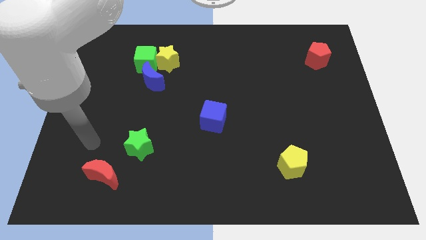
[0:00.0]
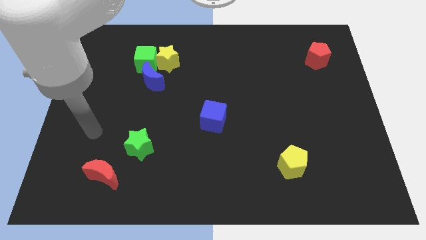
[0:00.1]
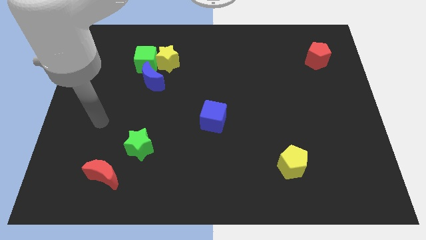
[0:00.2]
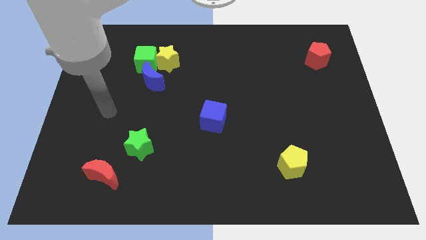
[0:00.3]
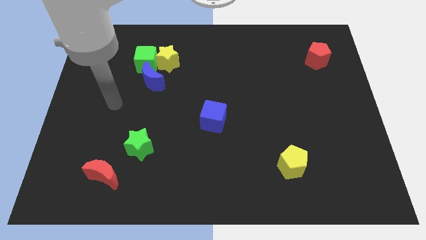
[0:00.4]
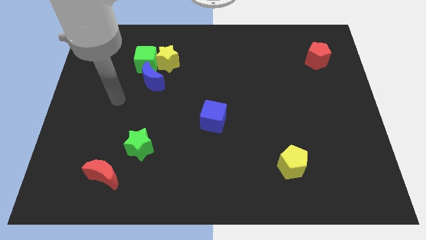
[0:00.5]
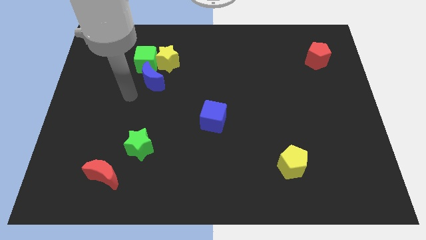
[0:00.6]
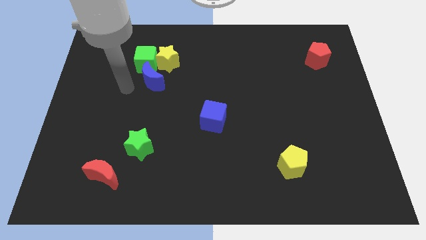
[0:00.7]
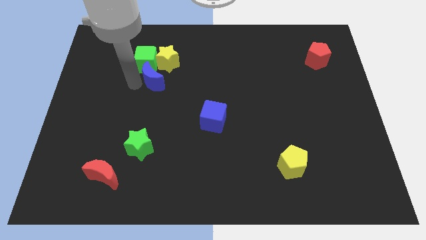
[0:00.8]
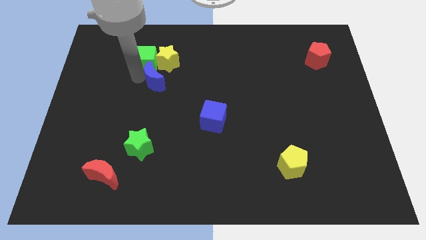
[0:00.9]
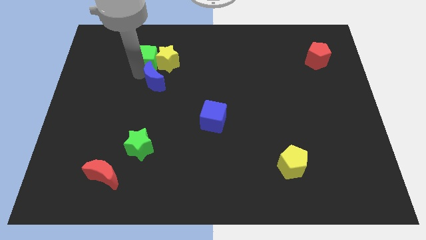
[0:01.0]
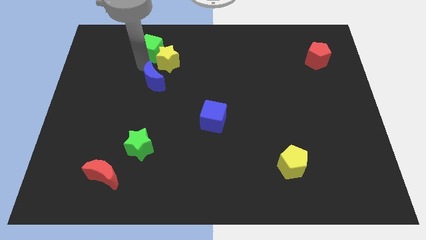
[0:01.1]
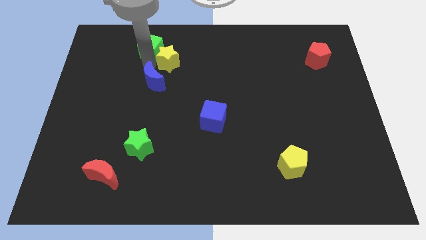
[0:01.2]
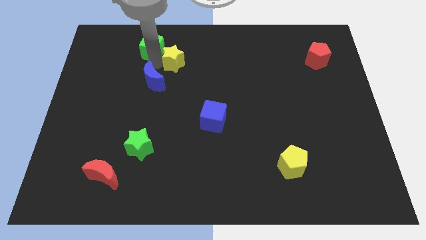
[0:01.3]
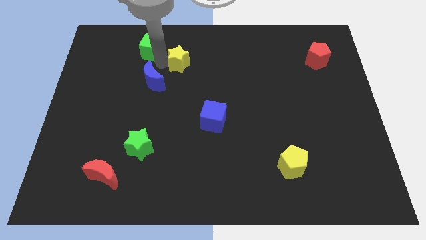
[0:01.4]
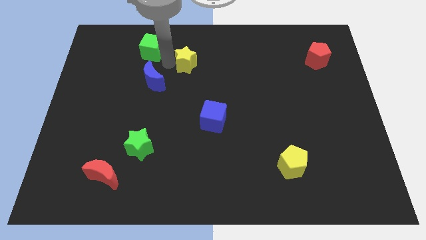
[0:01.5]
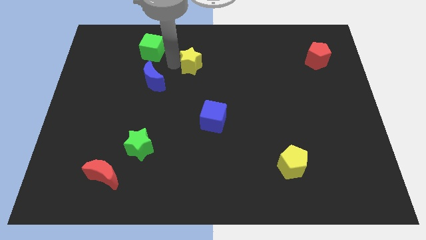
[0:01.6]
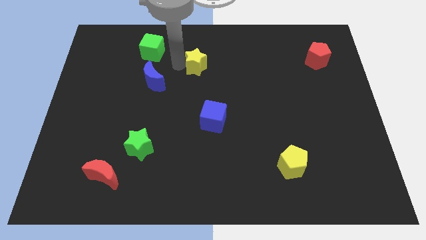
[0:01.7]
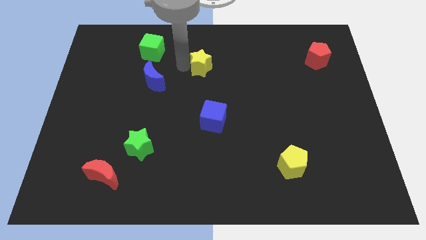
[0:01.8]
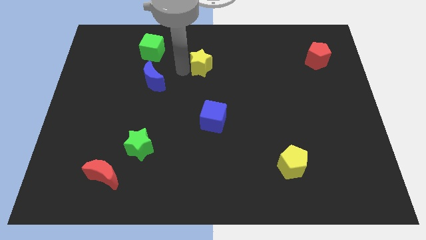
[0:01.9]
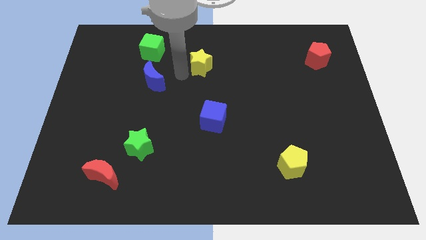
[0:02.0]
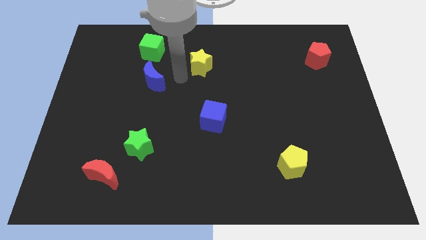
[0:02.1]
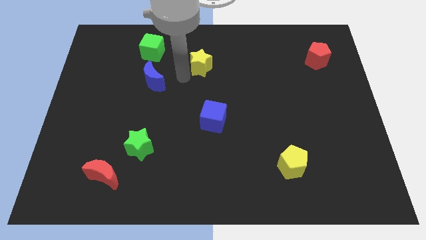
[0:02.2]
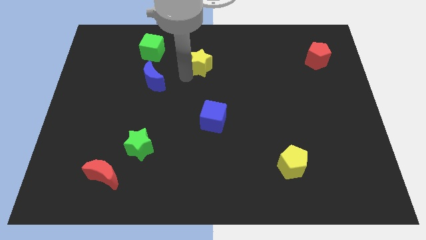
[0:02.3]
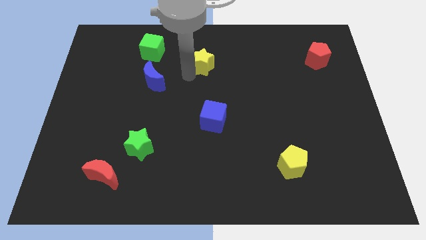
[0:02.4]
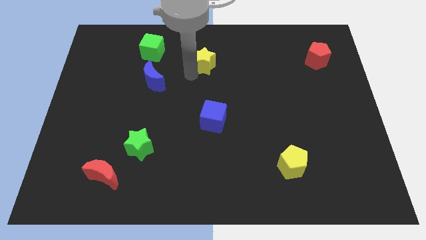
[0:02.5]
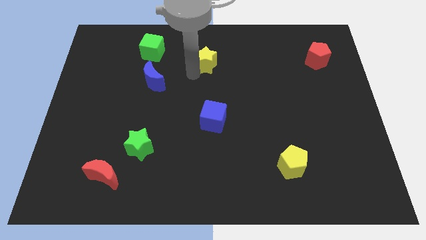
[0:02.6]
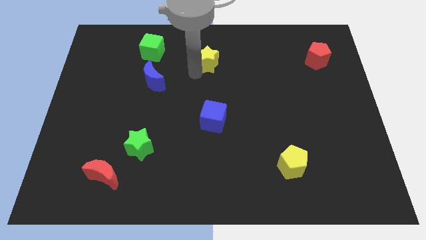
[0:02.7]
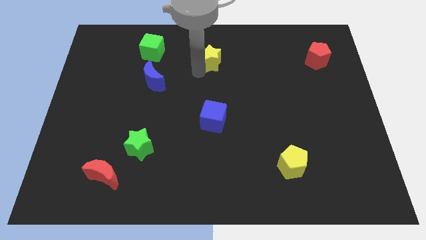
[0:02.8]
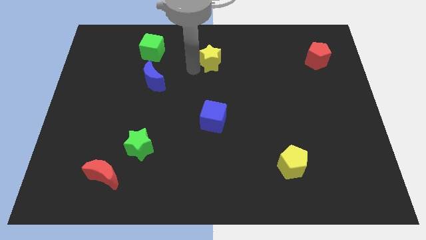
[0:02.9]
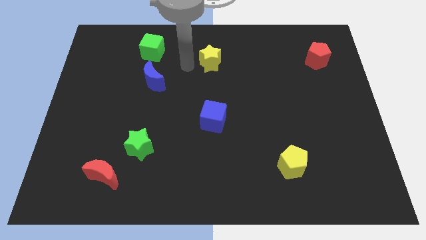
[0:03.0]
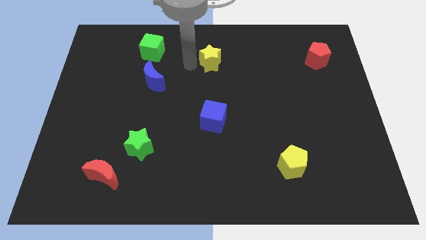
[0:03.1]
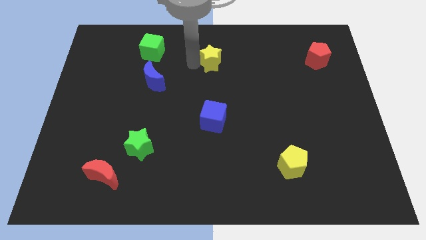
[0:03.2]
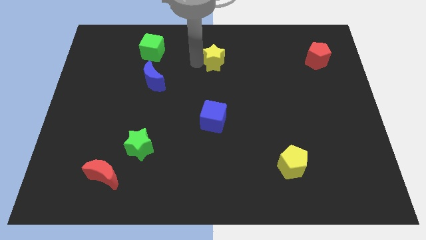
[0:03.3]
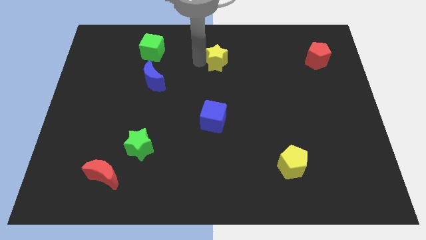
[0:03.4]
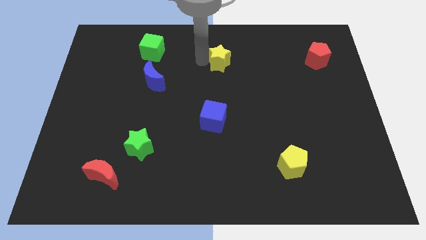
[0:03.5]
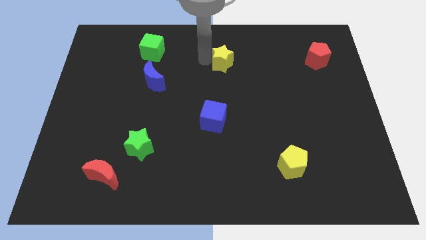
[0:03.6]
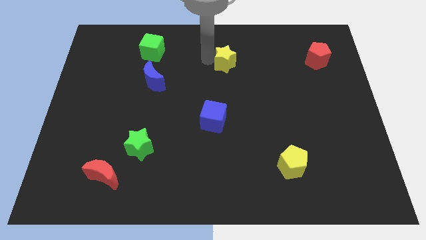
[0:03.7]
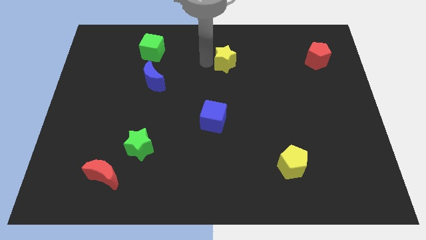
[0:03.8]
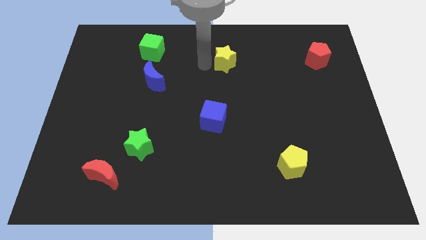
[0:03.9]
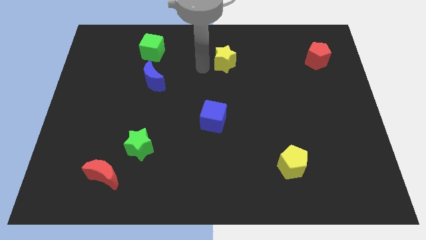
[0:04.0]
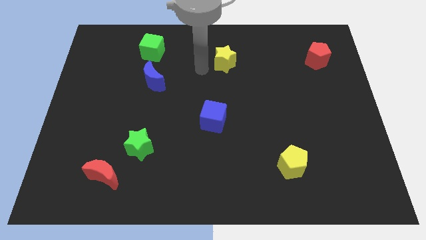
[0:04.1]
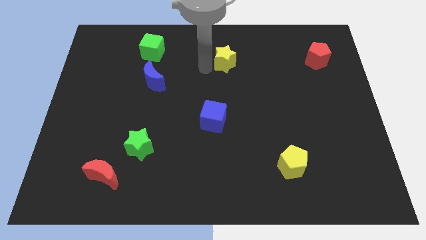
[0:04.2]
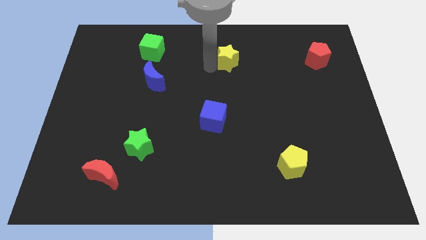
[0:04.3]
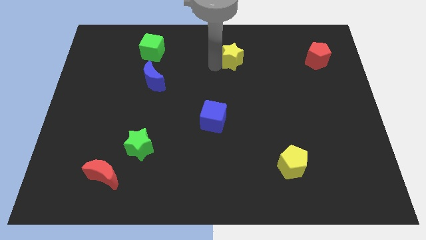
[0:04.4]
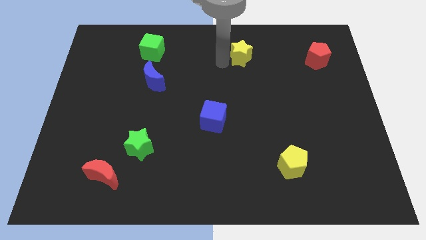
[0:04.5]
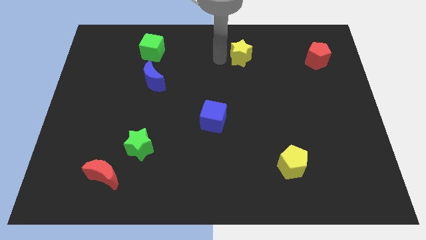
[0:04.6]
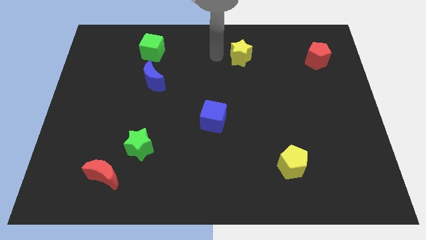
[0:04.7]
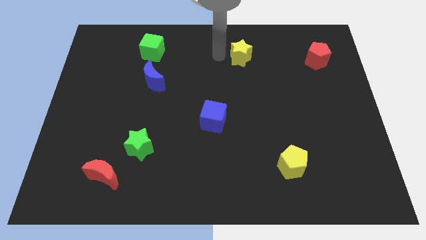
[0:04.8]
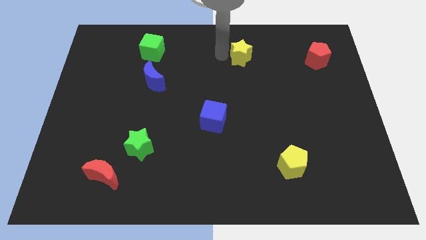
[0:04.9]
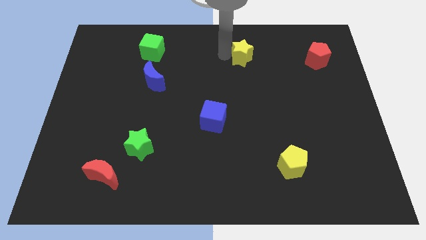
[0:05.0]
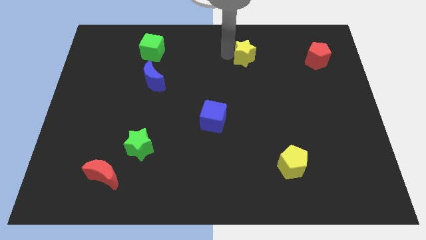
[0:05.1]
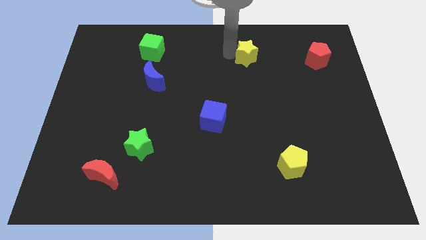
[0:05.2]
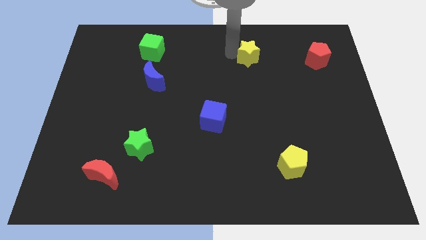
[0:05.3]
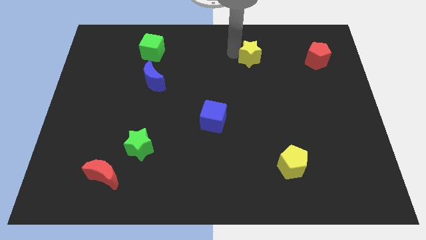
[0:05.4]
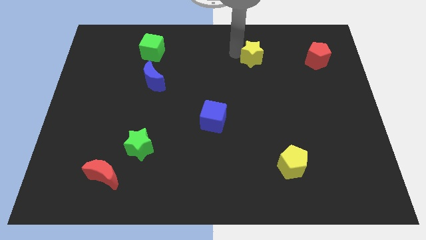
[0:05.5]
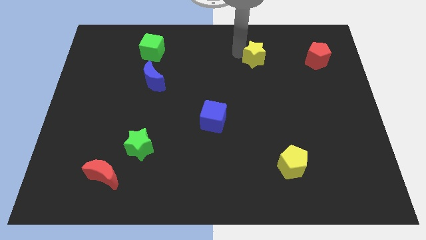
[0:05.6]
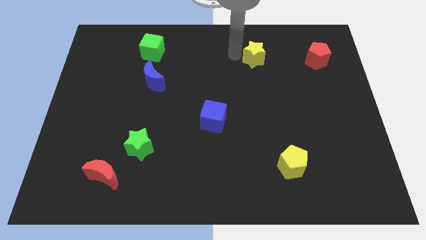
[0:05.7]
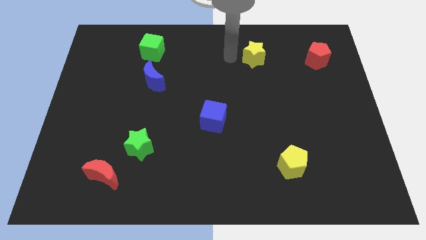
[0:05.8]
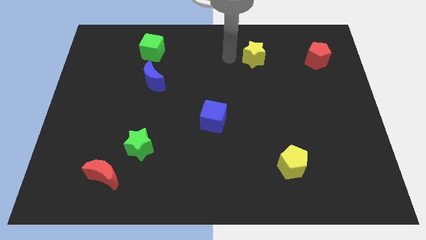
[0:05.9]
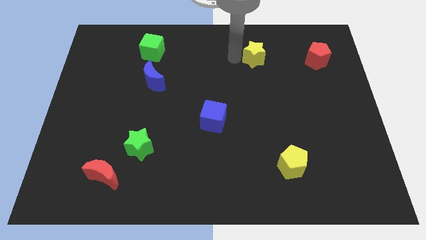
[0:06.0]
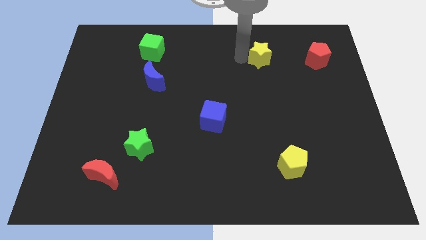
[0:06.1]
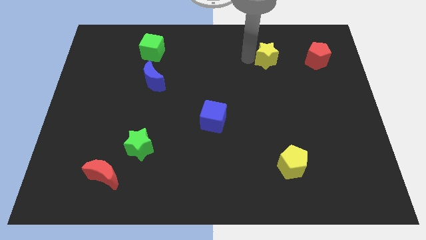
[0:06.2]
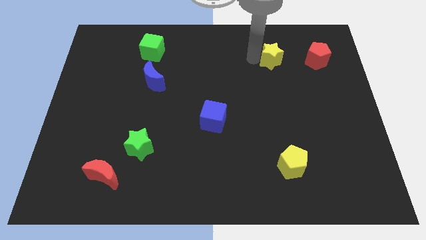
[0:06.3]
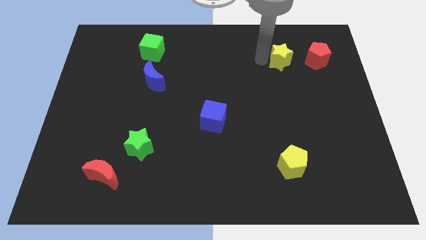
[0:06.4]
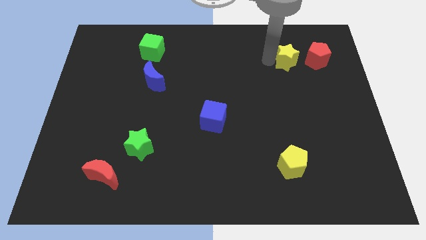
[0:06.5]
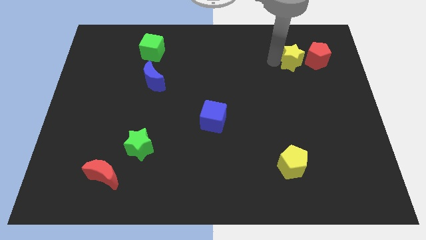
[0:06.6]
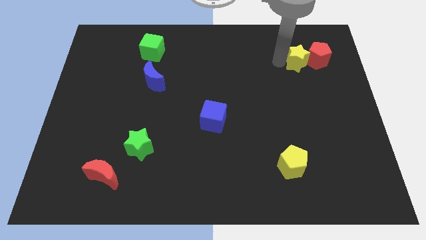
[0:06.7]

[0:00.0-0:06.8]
slide the yellow star towards the red pentagon

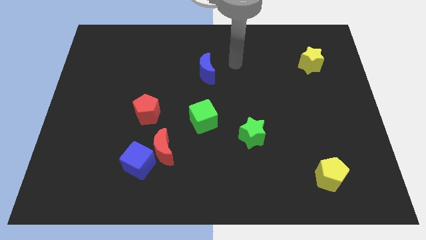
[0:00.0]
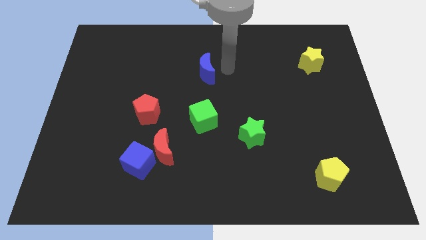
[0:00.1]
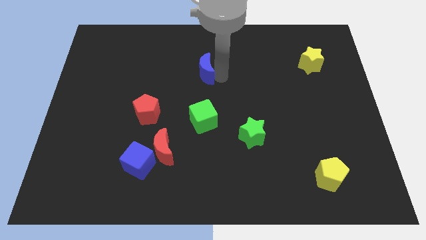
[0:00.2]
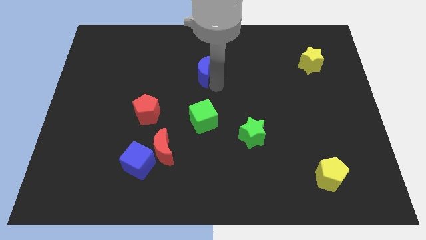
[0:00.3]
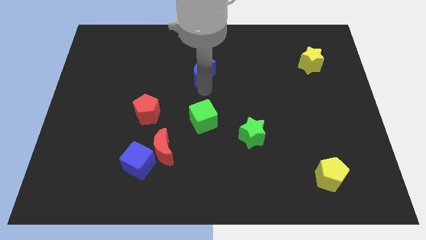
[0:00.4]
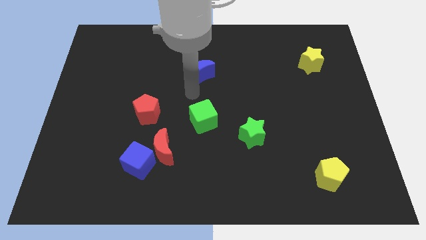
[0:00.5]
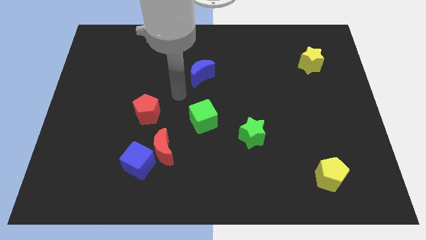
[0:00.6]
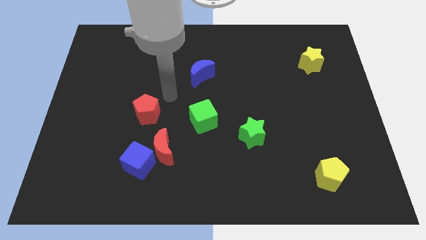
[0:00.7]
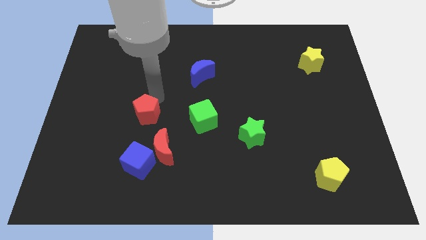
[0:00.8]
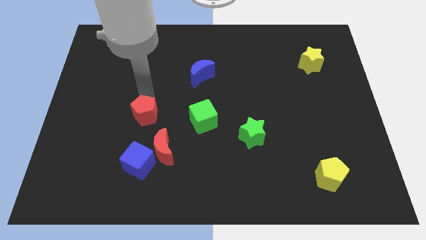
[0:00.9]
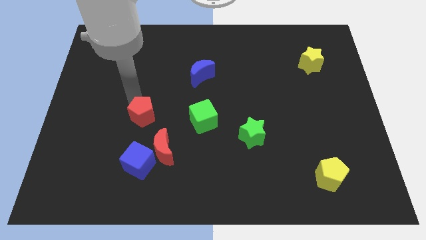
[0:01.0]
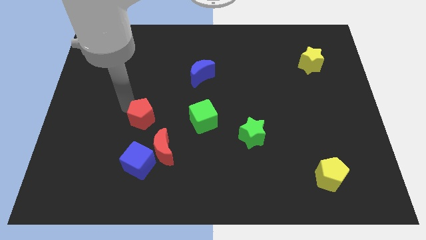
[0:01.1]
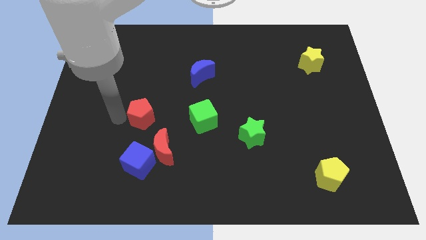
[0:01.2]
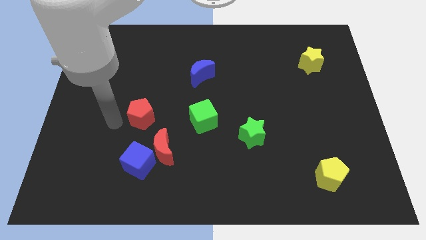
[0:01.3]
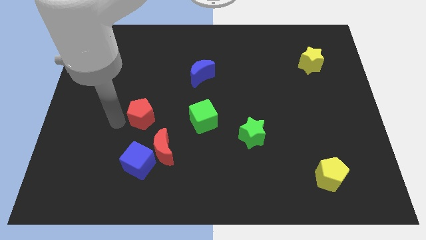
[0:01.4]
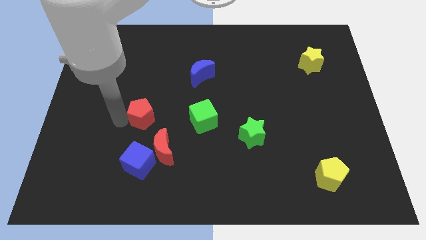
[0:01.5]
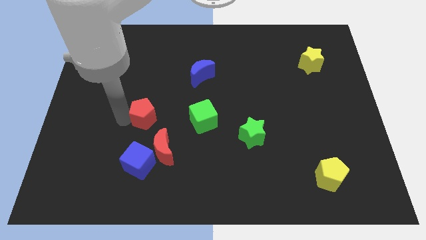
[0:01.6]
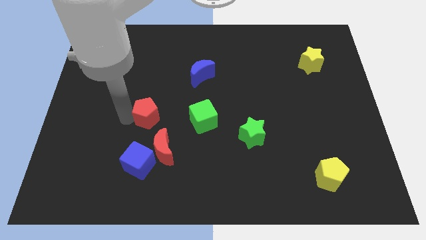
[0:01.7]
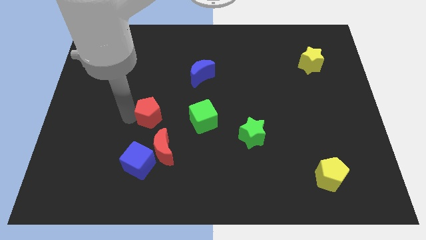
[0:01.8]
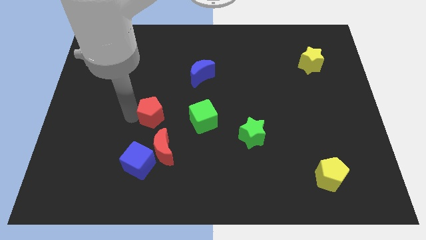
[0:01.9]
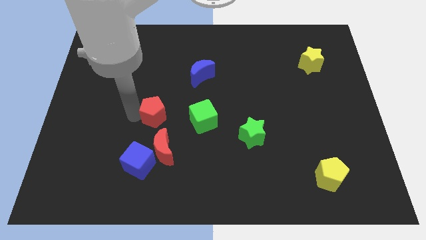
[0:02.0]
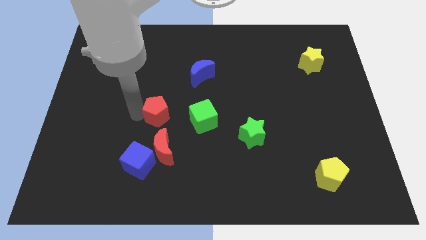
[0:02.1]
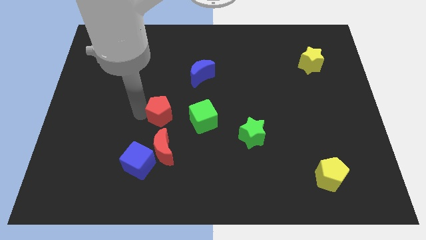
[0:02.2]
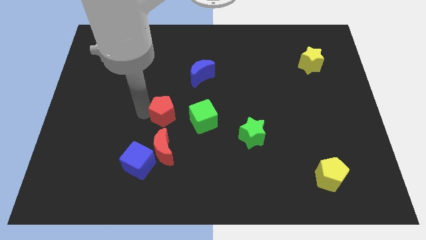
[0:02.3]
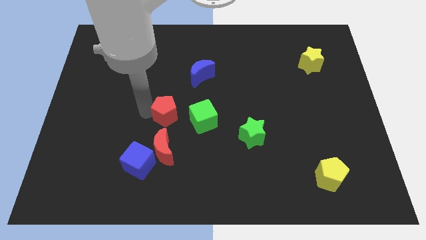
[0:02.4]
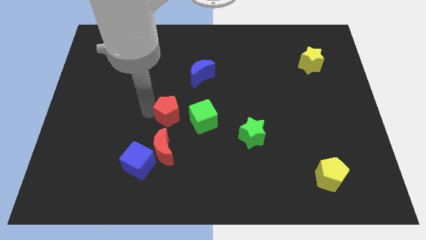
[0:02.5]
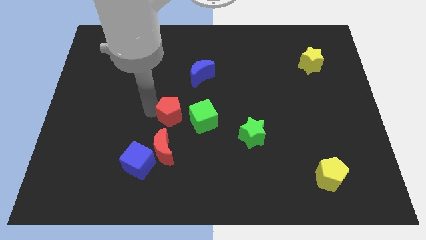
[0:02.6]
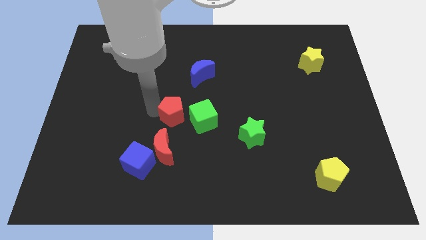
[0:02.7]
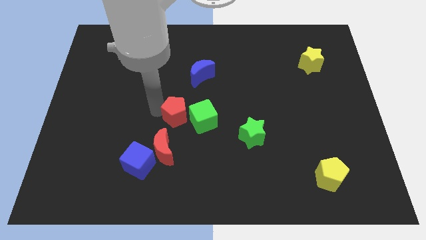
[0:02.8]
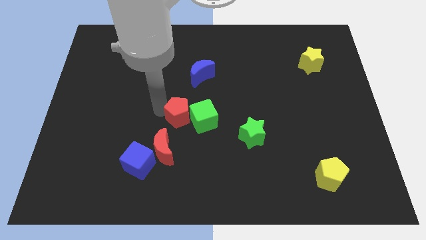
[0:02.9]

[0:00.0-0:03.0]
slide the red pentagon close to the green cube
